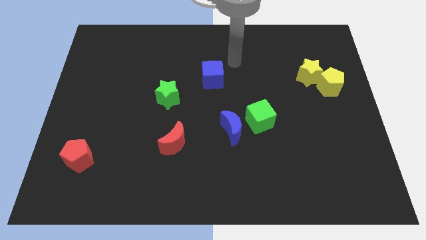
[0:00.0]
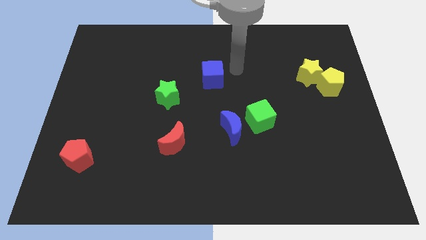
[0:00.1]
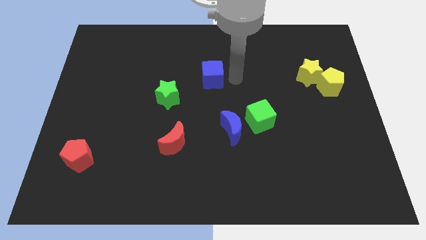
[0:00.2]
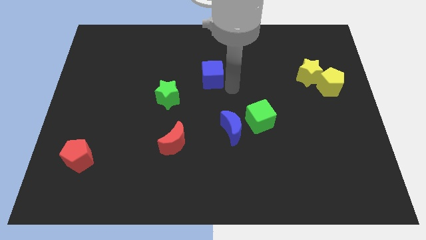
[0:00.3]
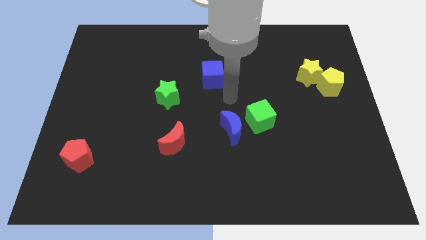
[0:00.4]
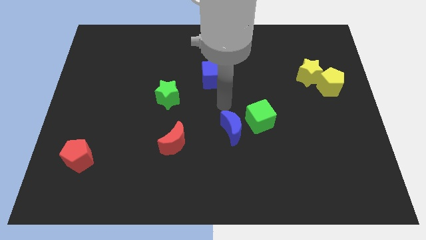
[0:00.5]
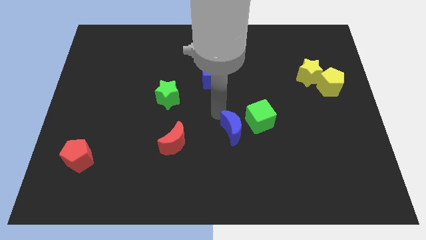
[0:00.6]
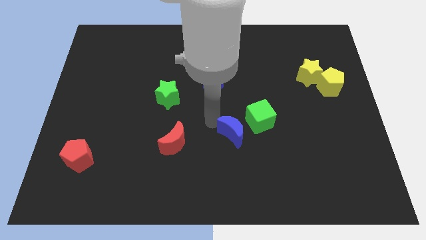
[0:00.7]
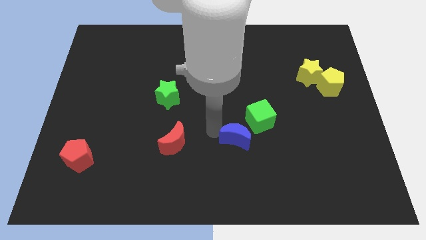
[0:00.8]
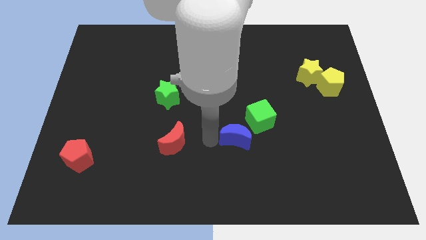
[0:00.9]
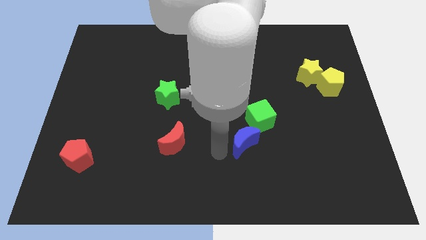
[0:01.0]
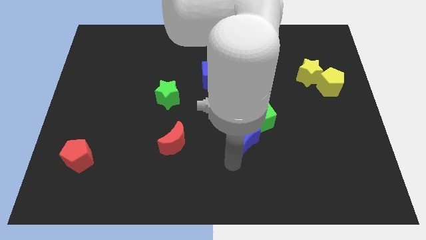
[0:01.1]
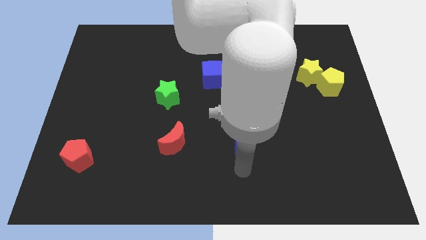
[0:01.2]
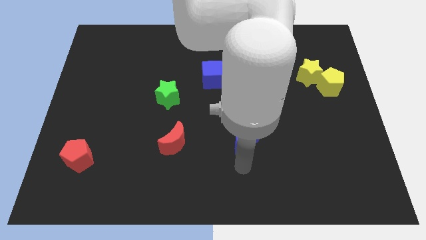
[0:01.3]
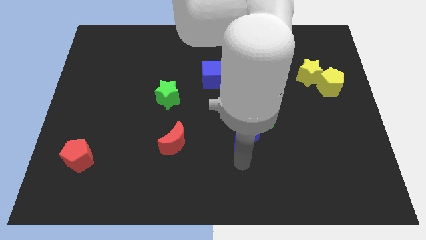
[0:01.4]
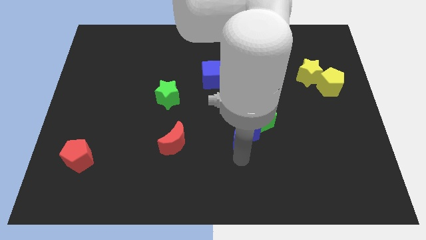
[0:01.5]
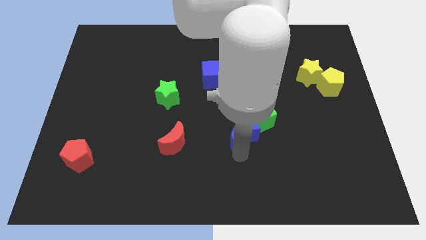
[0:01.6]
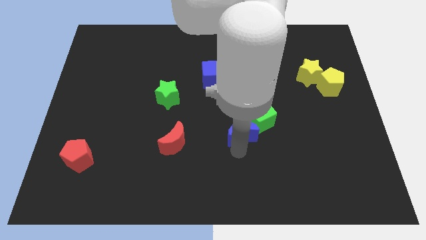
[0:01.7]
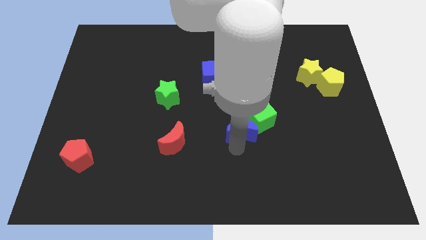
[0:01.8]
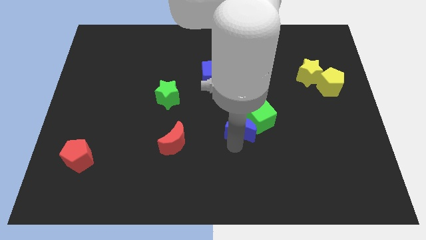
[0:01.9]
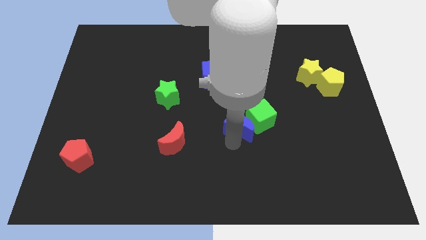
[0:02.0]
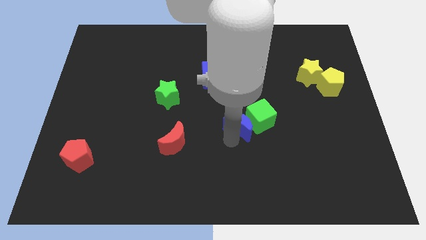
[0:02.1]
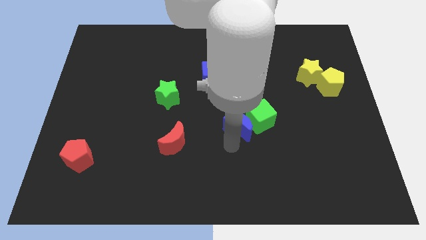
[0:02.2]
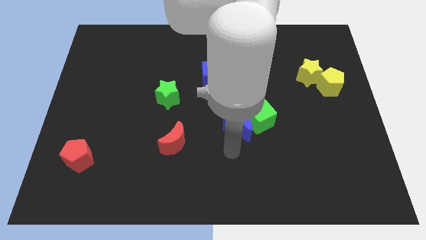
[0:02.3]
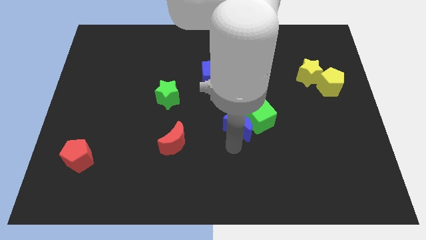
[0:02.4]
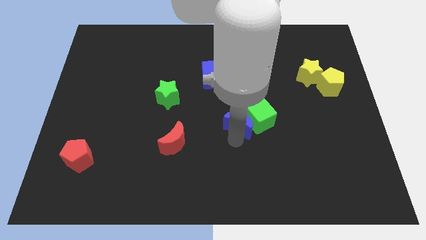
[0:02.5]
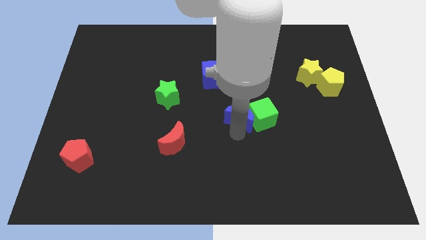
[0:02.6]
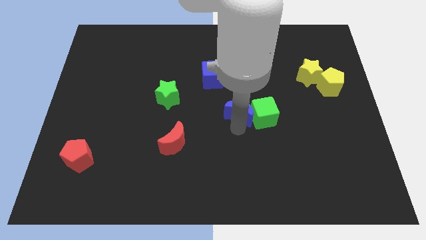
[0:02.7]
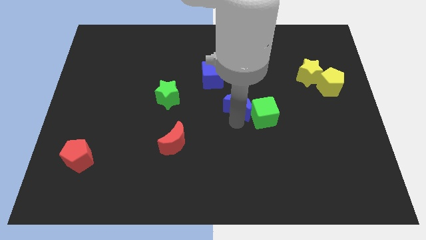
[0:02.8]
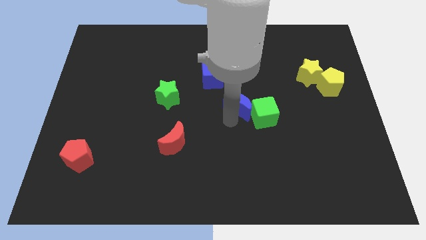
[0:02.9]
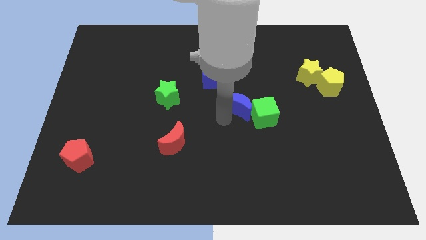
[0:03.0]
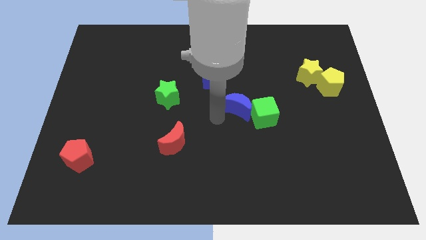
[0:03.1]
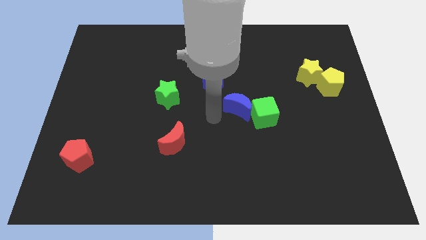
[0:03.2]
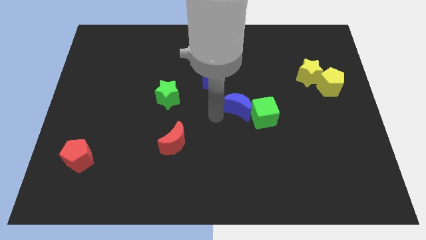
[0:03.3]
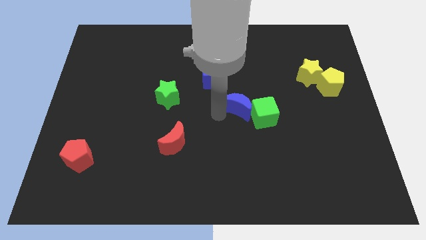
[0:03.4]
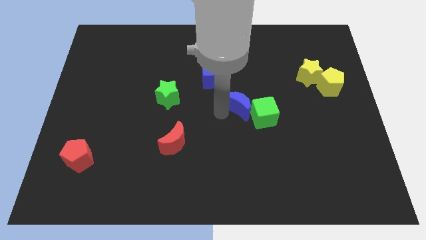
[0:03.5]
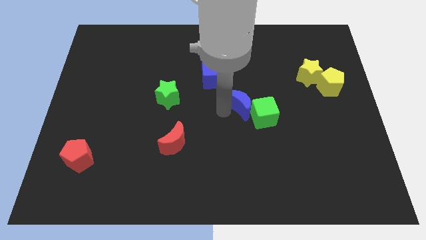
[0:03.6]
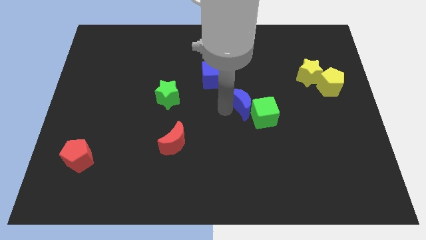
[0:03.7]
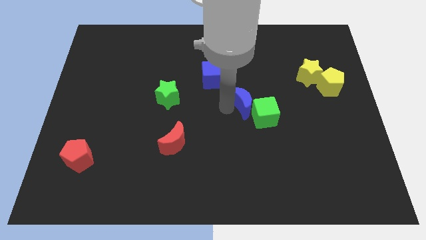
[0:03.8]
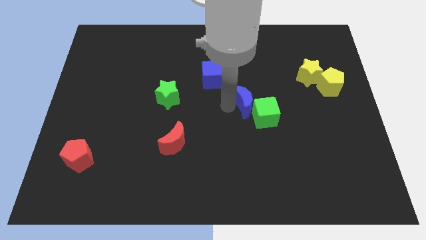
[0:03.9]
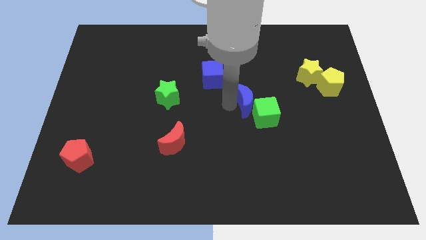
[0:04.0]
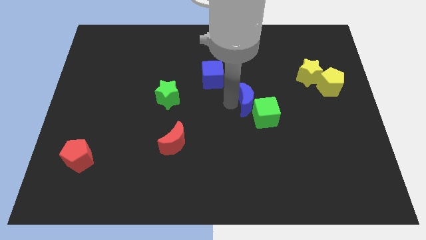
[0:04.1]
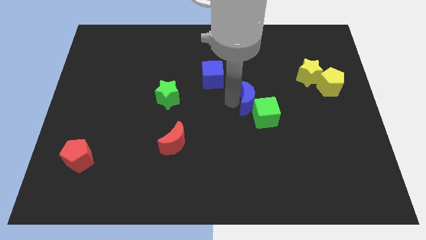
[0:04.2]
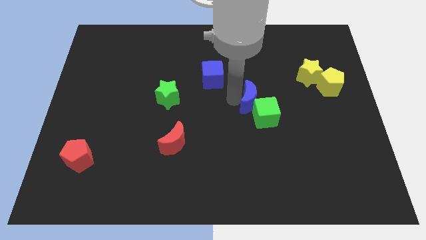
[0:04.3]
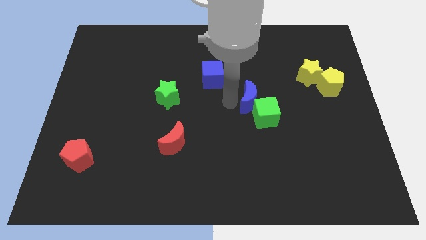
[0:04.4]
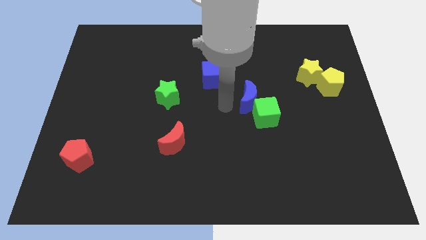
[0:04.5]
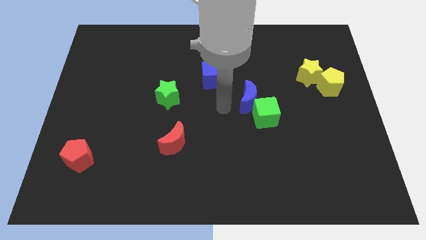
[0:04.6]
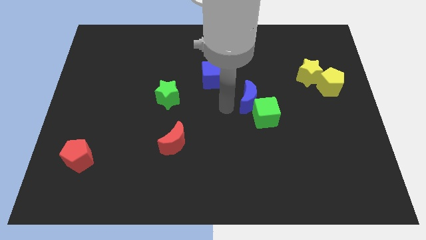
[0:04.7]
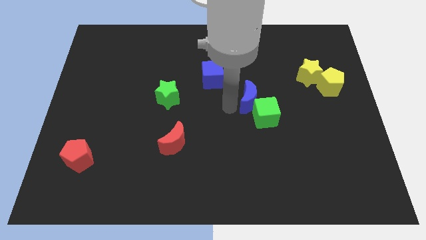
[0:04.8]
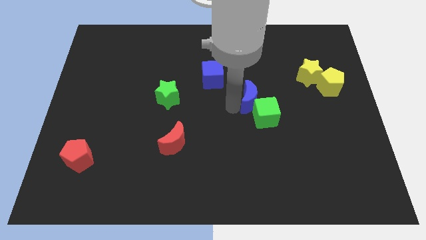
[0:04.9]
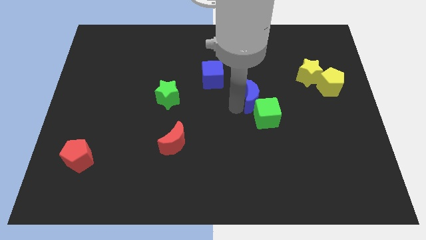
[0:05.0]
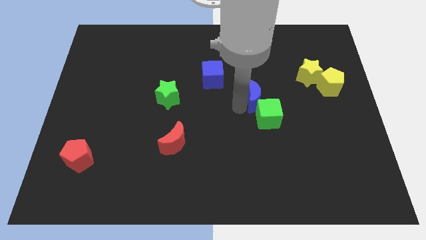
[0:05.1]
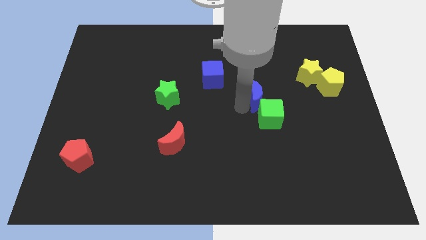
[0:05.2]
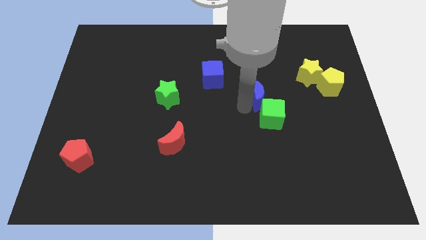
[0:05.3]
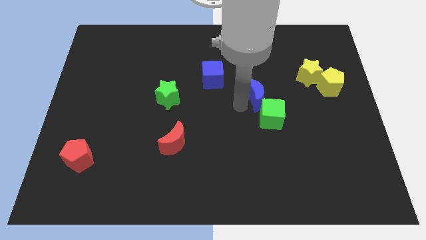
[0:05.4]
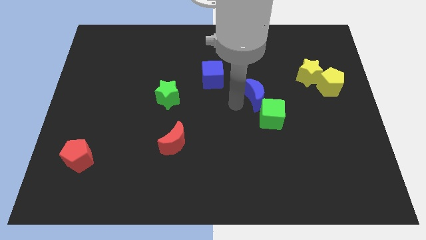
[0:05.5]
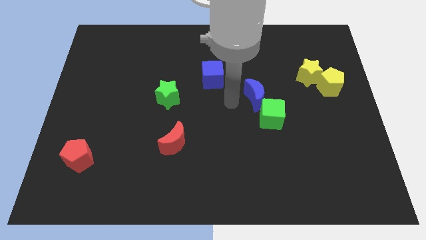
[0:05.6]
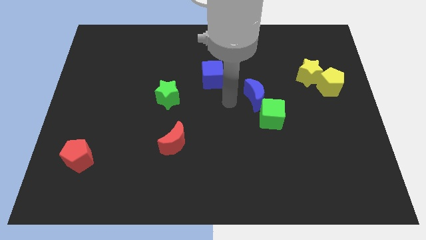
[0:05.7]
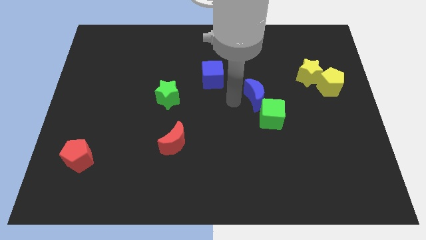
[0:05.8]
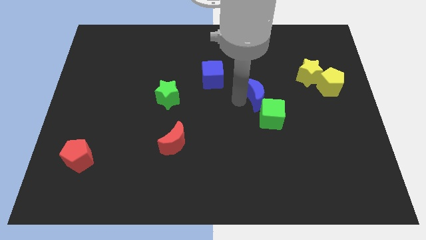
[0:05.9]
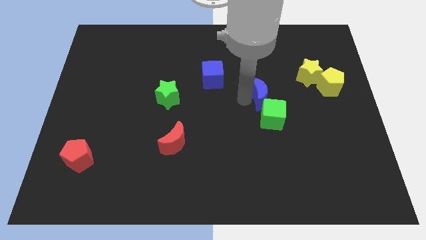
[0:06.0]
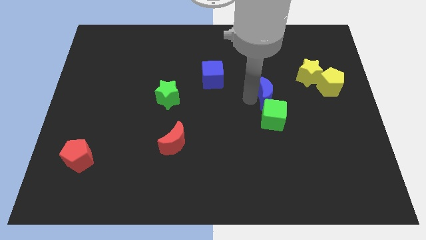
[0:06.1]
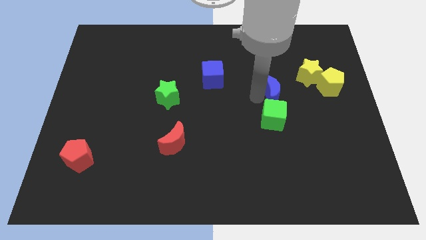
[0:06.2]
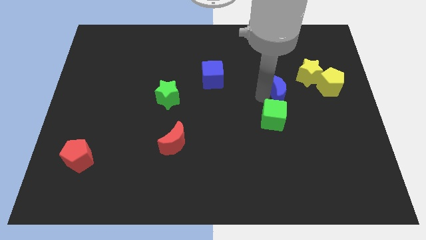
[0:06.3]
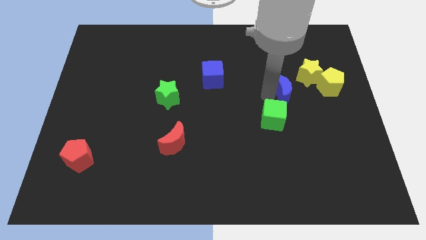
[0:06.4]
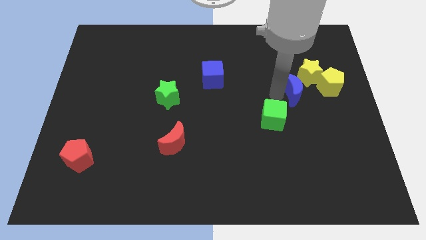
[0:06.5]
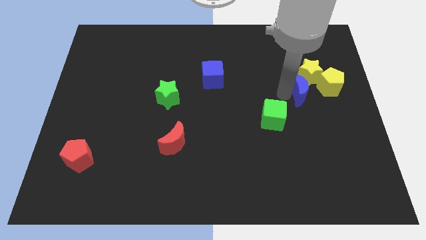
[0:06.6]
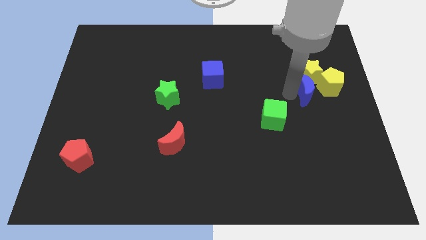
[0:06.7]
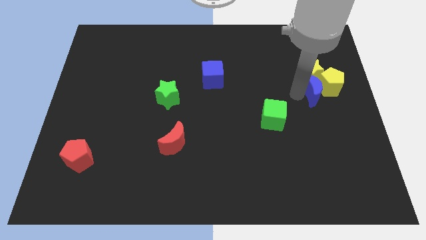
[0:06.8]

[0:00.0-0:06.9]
slide the blue moon next to the yellow pentagon

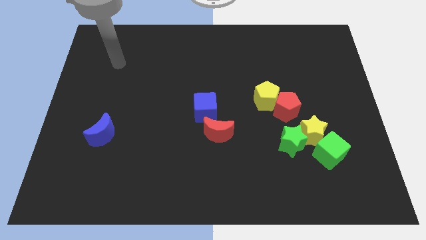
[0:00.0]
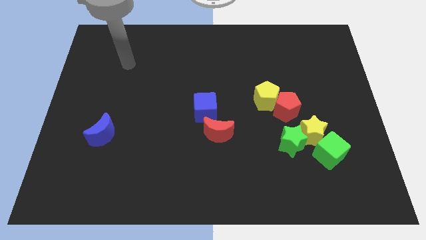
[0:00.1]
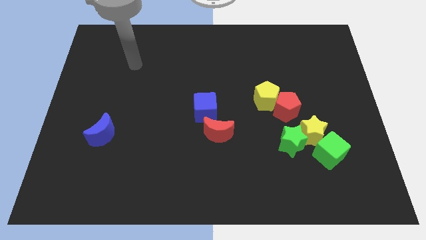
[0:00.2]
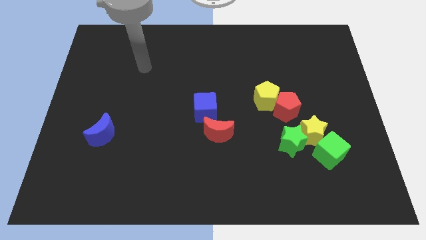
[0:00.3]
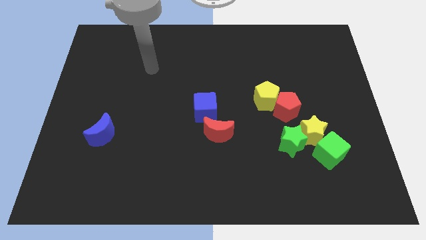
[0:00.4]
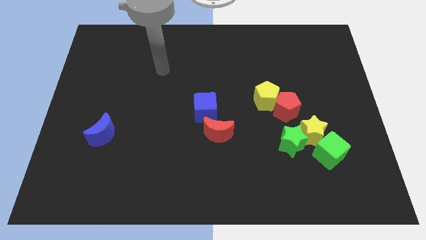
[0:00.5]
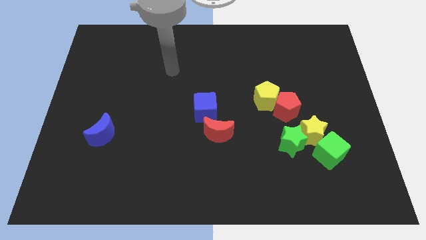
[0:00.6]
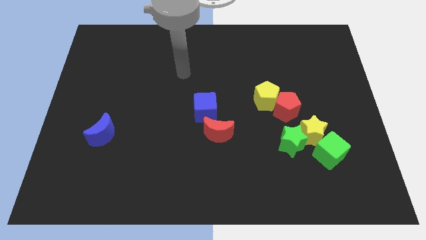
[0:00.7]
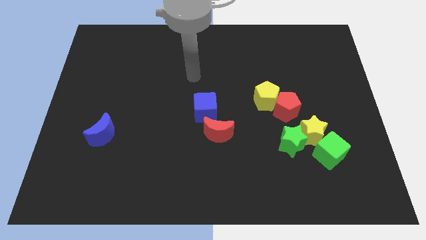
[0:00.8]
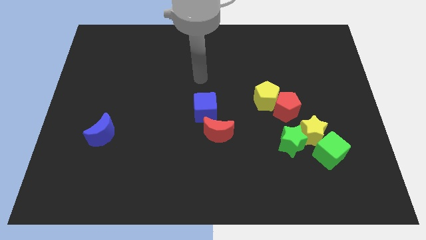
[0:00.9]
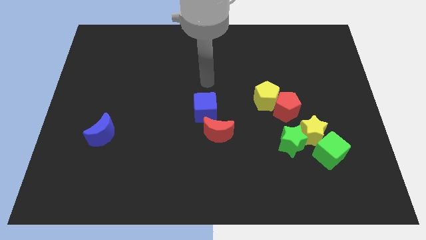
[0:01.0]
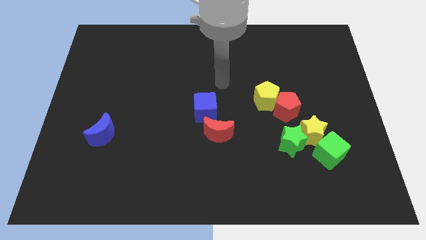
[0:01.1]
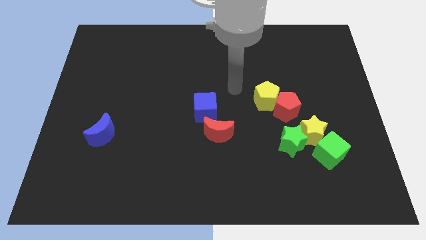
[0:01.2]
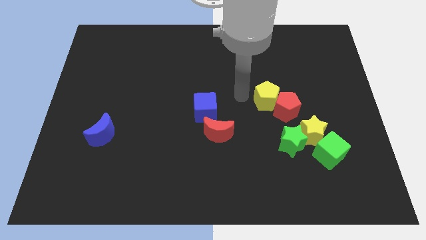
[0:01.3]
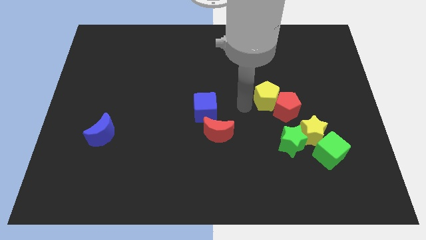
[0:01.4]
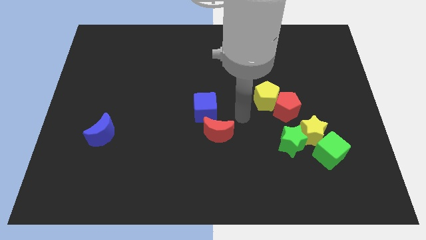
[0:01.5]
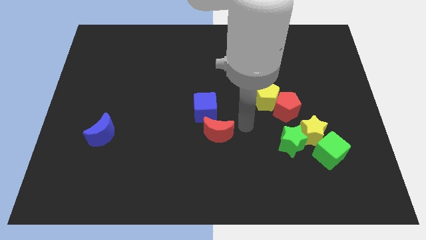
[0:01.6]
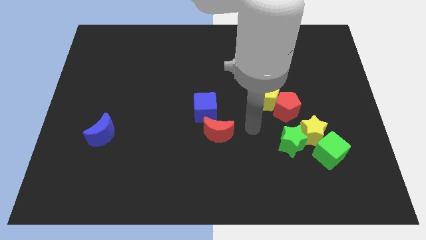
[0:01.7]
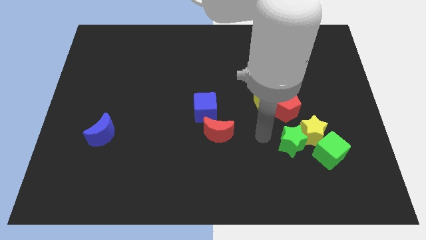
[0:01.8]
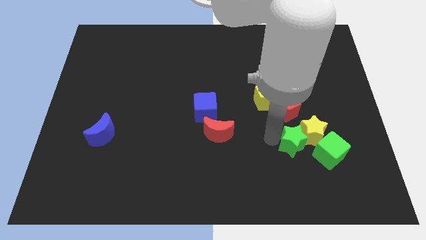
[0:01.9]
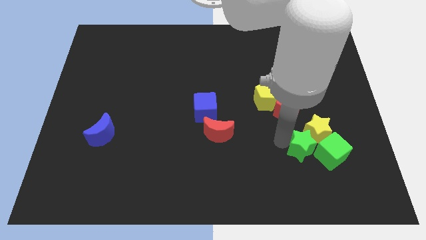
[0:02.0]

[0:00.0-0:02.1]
slide the green star to the green cube
